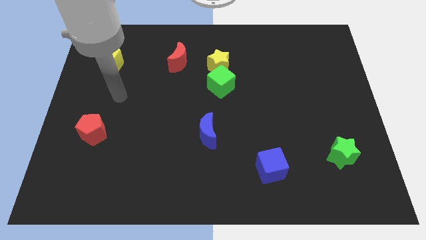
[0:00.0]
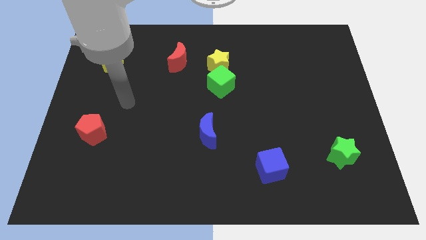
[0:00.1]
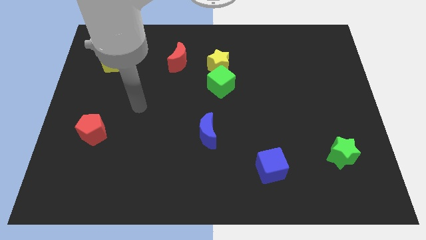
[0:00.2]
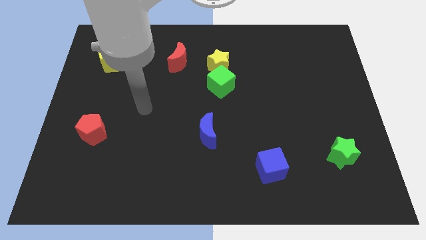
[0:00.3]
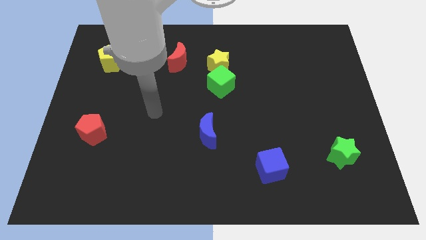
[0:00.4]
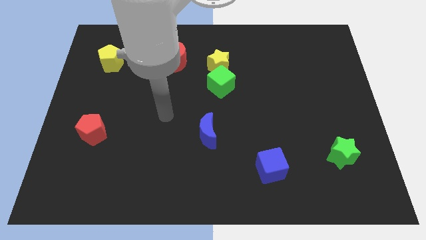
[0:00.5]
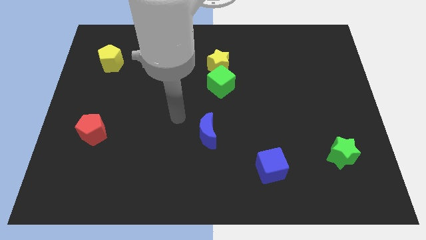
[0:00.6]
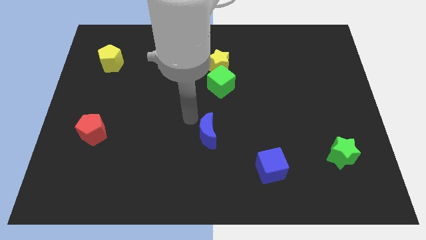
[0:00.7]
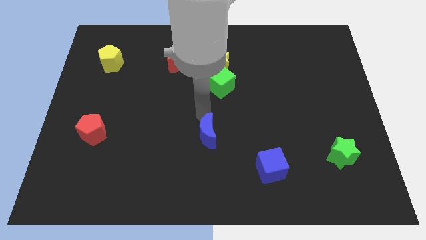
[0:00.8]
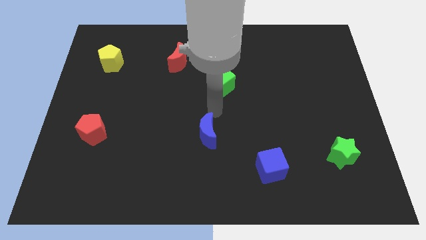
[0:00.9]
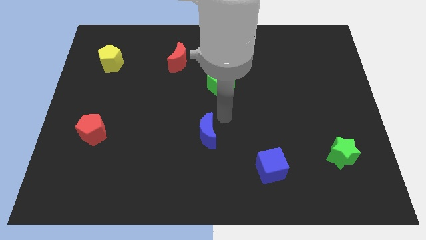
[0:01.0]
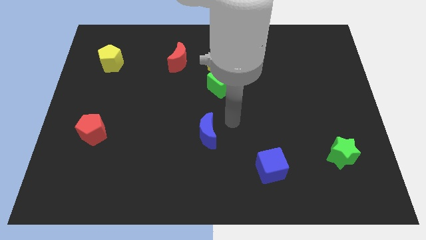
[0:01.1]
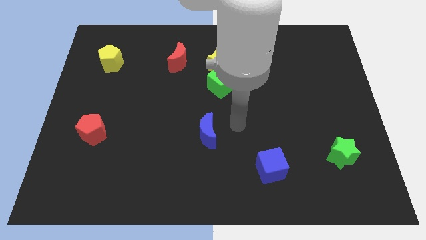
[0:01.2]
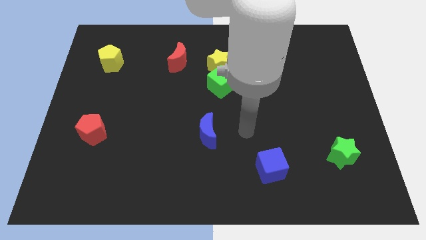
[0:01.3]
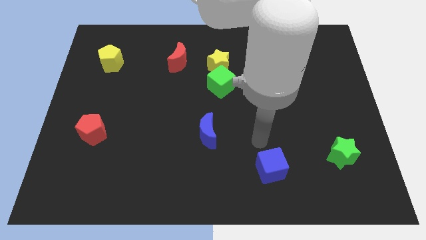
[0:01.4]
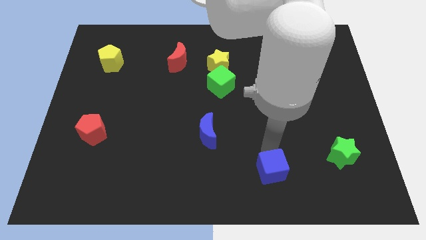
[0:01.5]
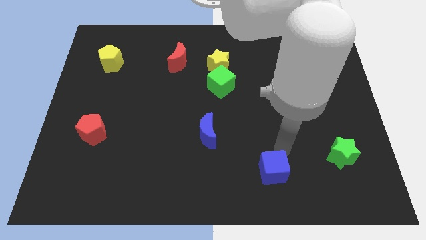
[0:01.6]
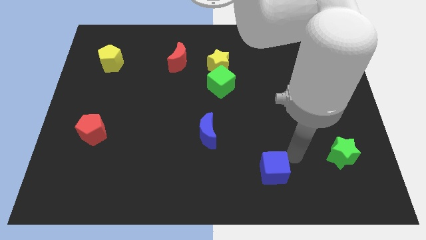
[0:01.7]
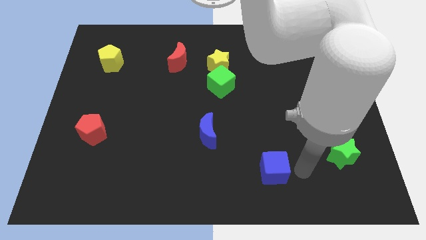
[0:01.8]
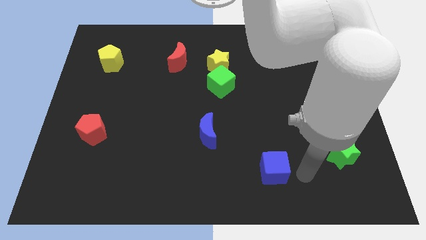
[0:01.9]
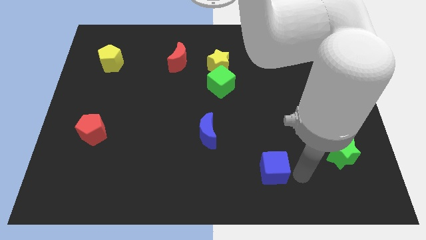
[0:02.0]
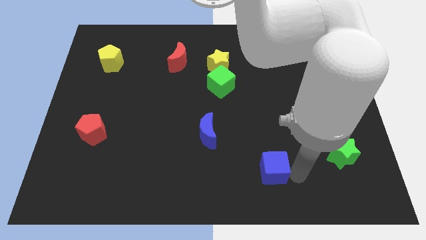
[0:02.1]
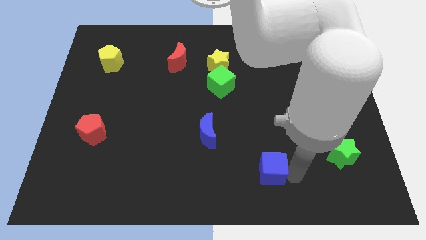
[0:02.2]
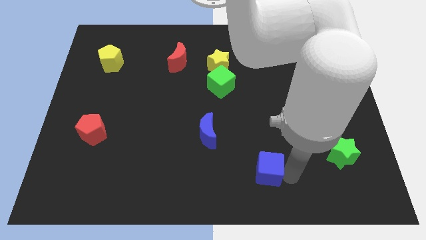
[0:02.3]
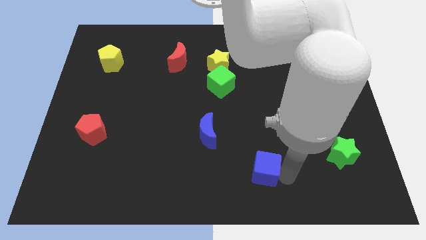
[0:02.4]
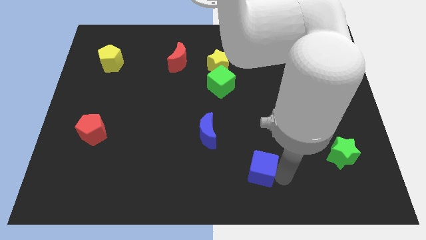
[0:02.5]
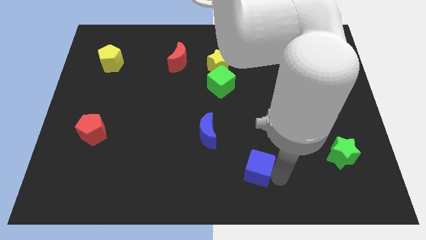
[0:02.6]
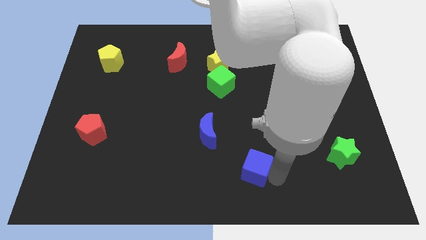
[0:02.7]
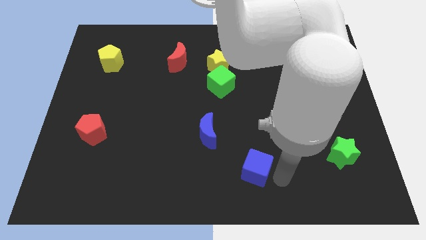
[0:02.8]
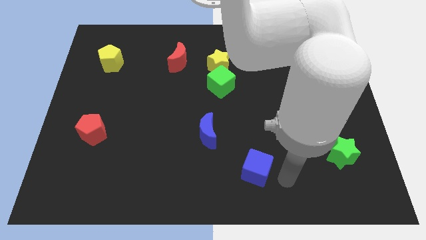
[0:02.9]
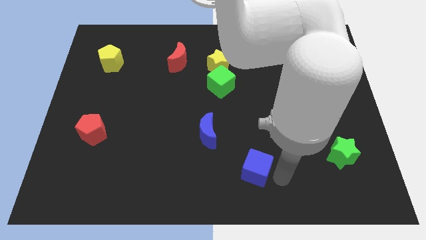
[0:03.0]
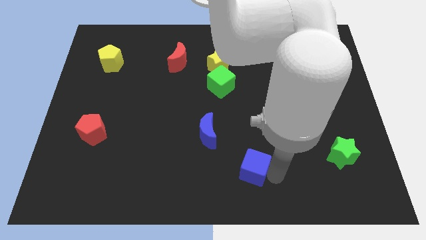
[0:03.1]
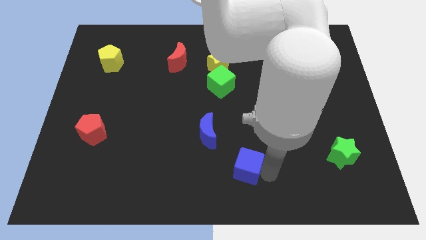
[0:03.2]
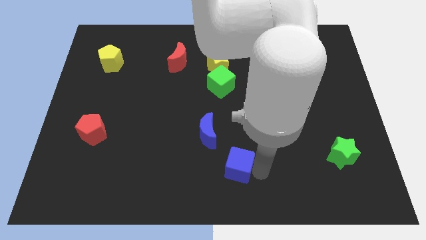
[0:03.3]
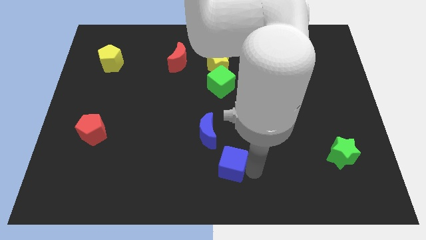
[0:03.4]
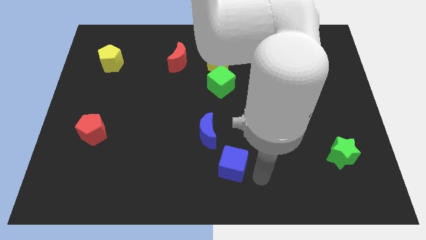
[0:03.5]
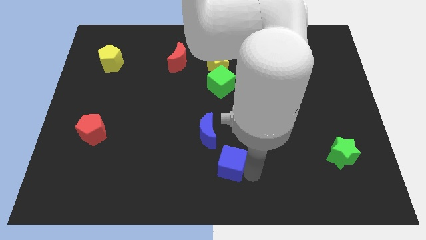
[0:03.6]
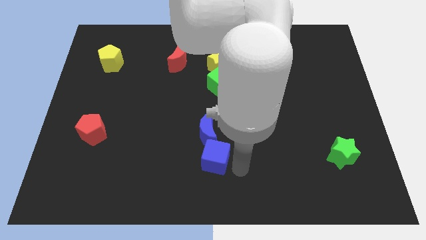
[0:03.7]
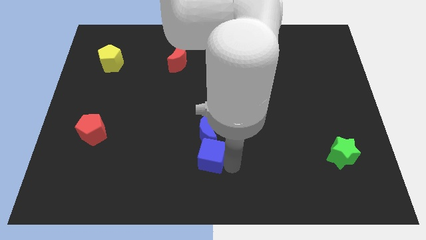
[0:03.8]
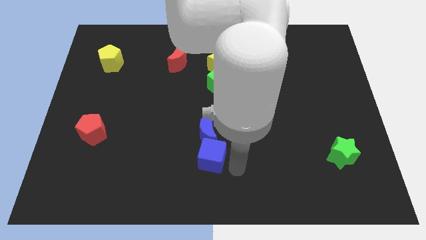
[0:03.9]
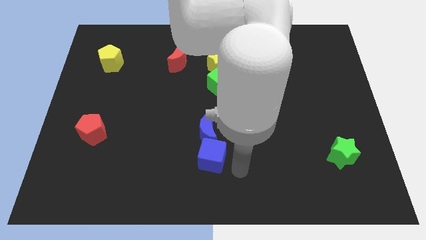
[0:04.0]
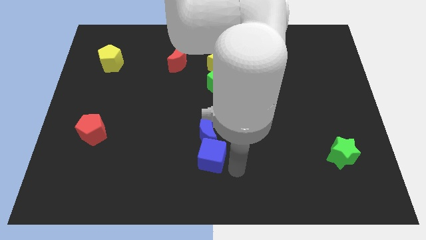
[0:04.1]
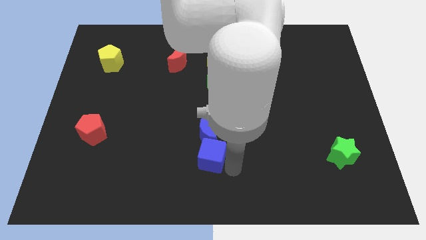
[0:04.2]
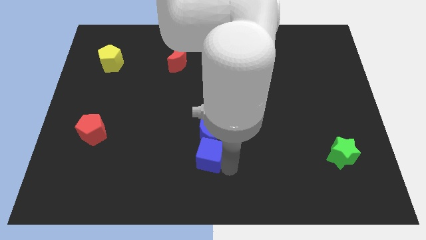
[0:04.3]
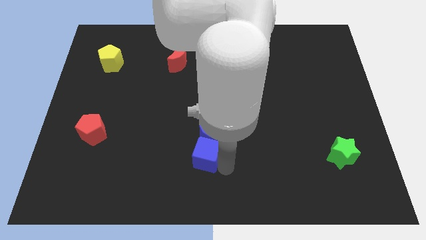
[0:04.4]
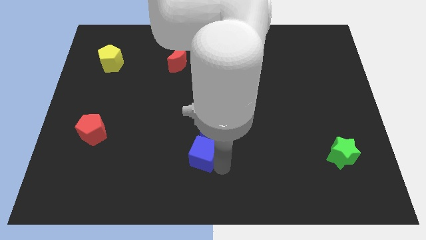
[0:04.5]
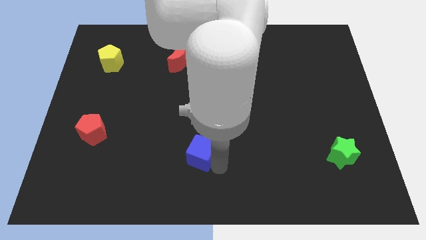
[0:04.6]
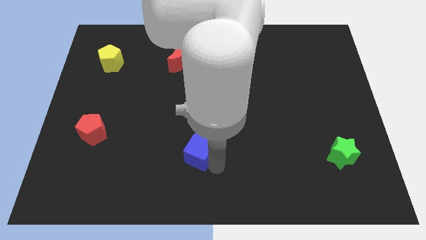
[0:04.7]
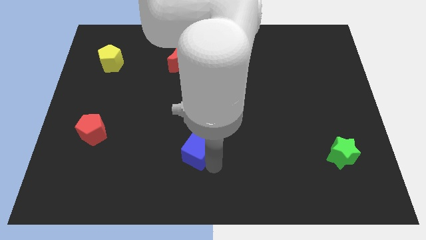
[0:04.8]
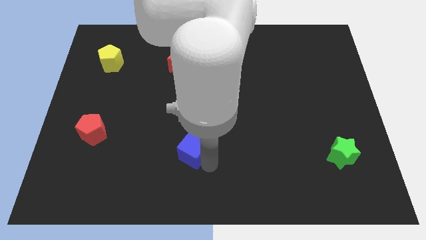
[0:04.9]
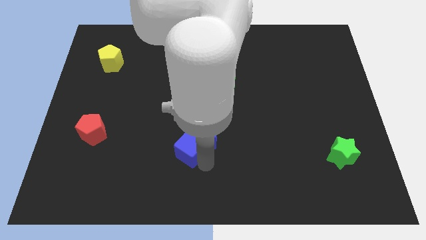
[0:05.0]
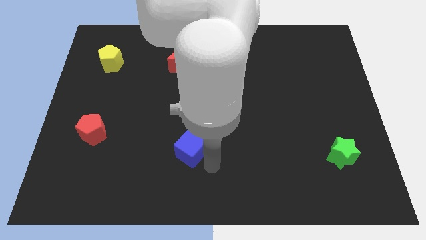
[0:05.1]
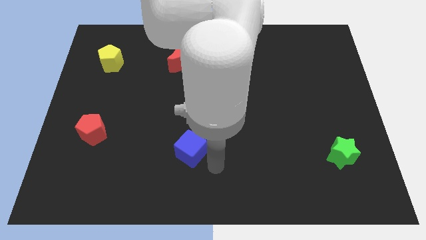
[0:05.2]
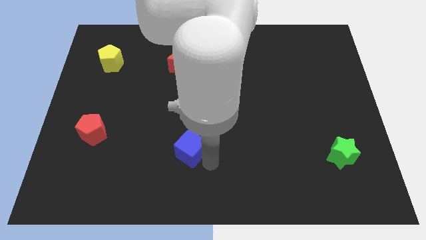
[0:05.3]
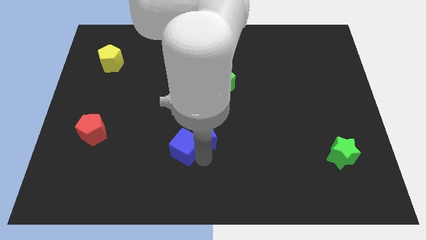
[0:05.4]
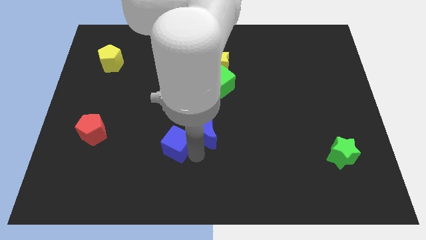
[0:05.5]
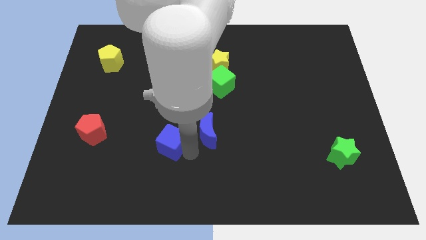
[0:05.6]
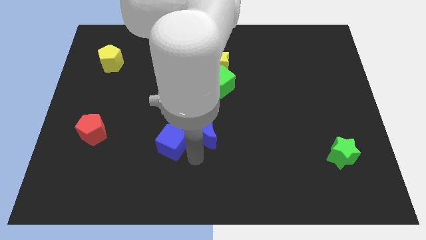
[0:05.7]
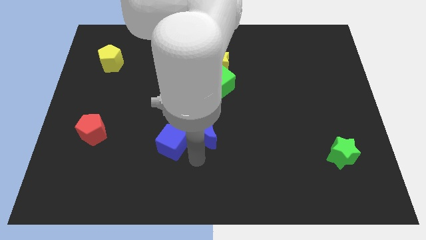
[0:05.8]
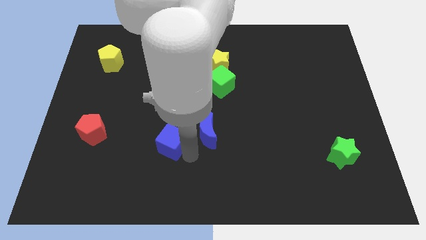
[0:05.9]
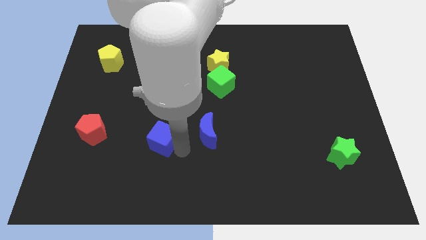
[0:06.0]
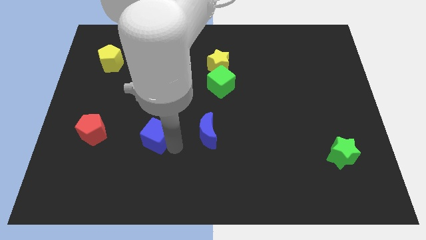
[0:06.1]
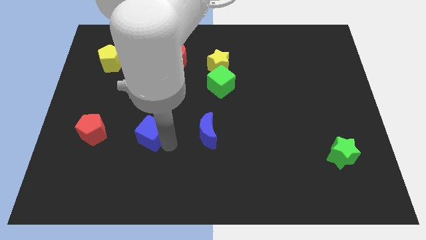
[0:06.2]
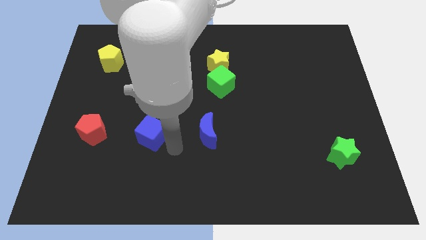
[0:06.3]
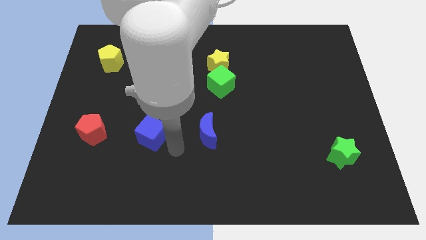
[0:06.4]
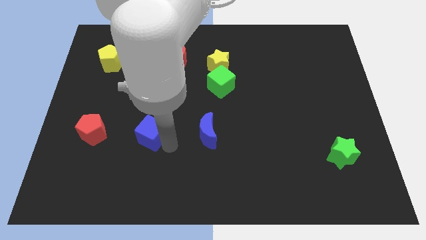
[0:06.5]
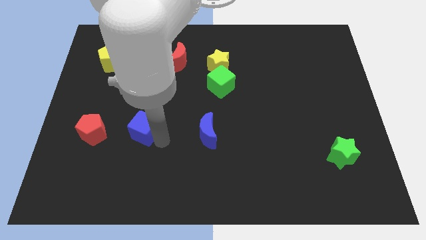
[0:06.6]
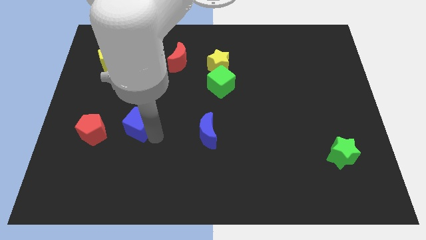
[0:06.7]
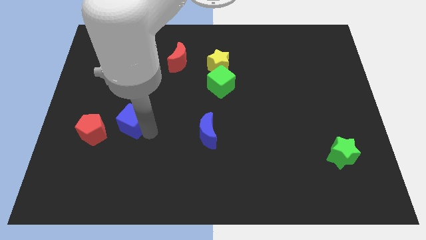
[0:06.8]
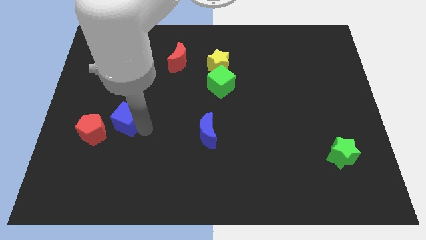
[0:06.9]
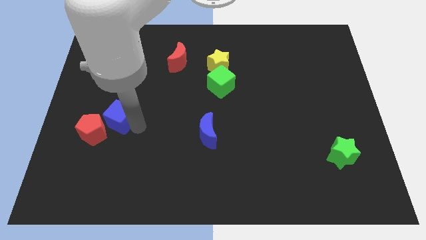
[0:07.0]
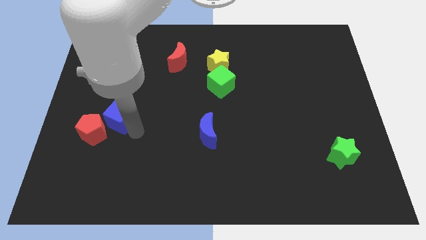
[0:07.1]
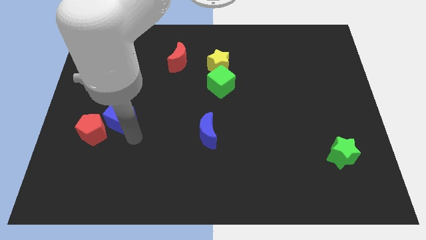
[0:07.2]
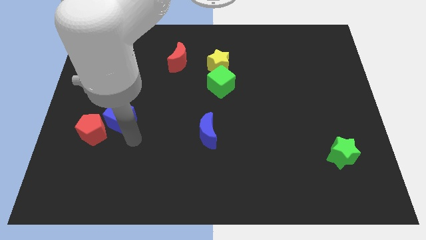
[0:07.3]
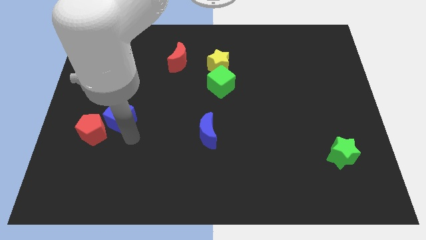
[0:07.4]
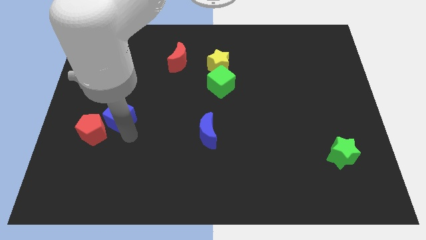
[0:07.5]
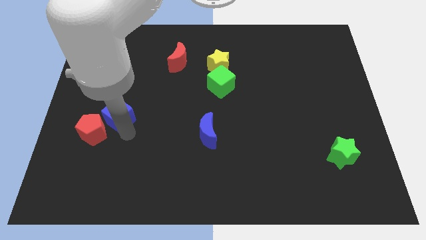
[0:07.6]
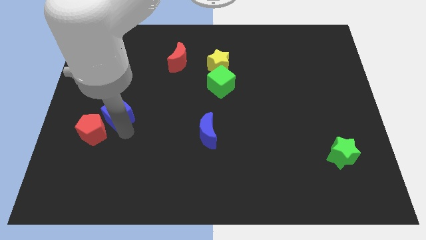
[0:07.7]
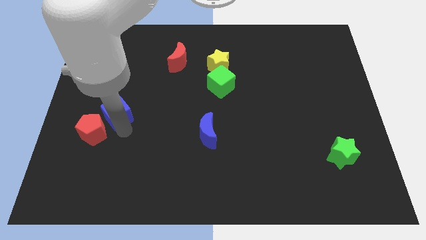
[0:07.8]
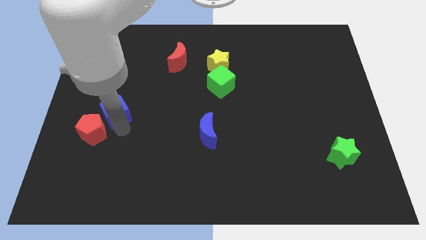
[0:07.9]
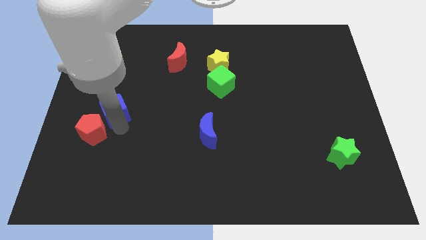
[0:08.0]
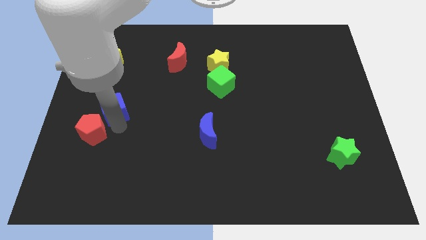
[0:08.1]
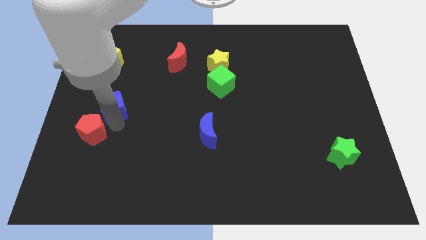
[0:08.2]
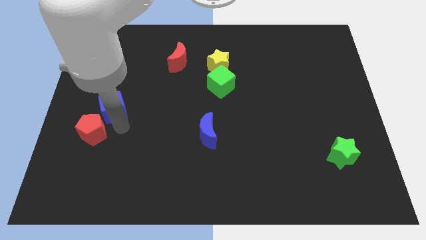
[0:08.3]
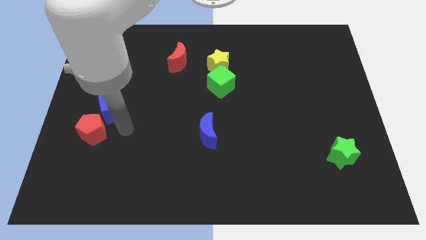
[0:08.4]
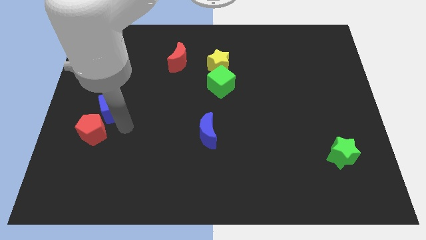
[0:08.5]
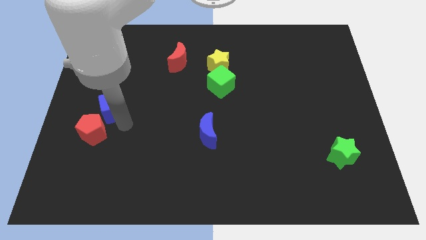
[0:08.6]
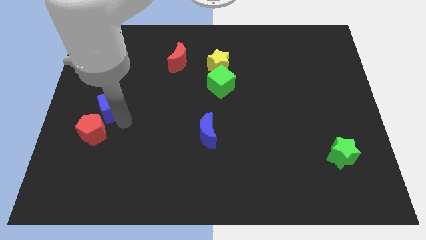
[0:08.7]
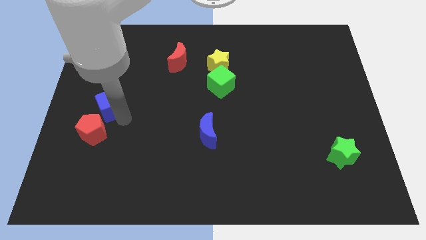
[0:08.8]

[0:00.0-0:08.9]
put the blue cube to the bottom of the yellow pentagon
